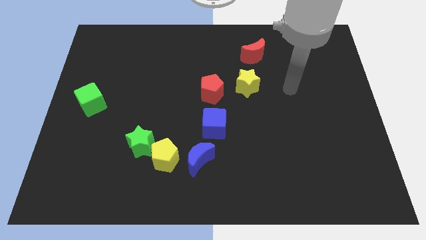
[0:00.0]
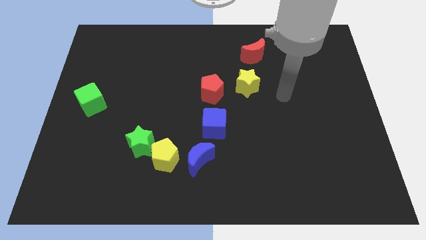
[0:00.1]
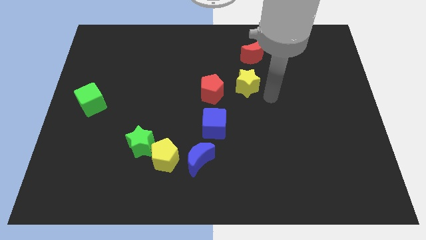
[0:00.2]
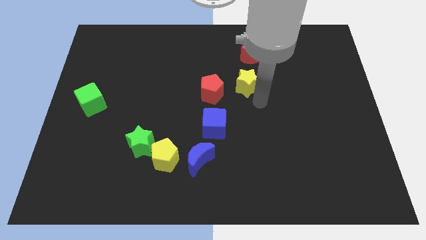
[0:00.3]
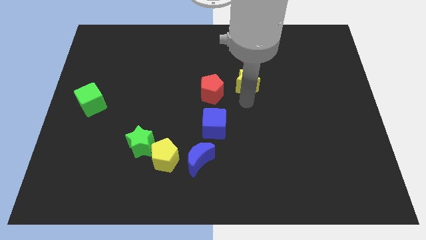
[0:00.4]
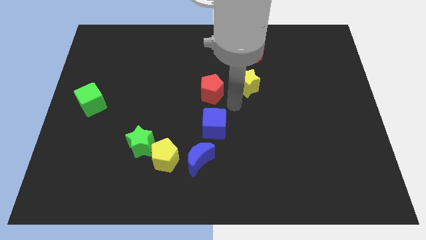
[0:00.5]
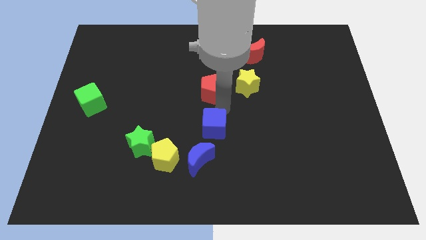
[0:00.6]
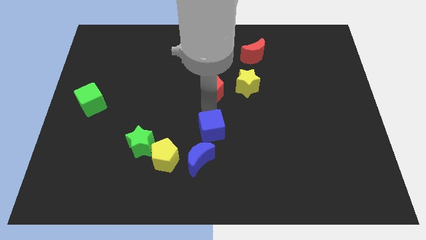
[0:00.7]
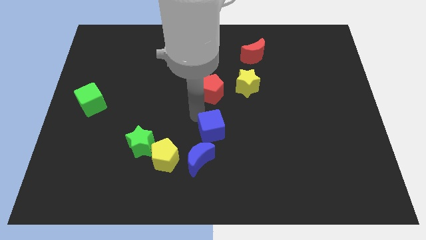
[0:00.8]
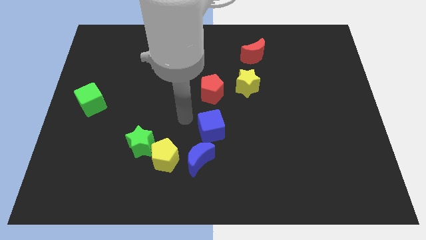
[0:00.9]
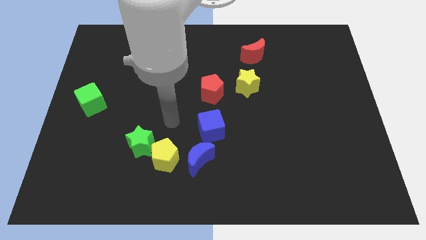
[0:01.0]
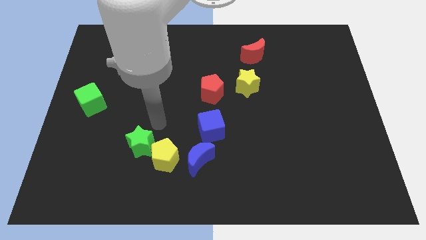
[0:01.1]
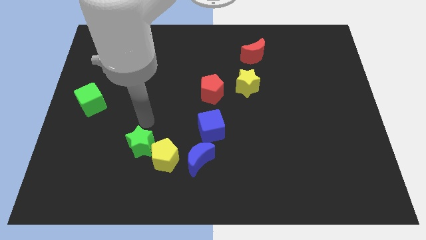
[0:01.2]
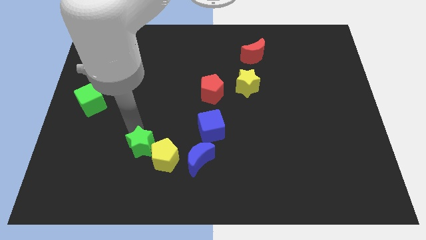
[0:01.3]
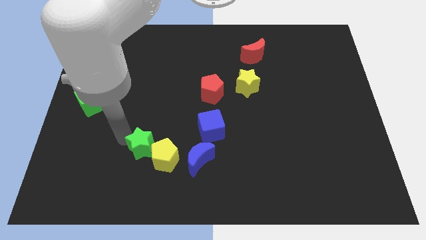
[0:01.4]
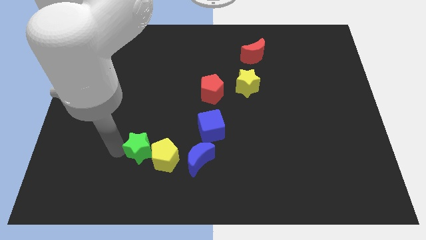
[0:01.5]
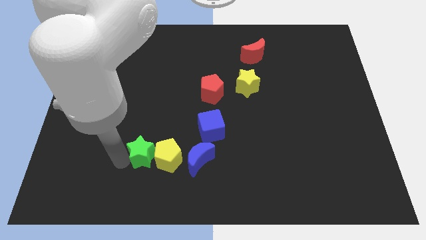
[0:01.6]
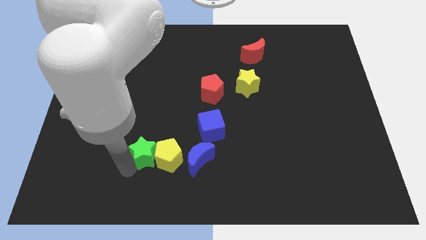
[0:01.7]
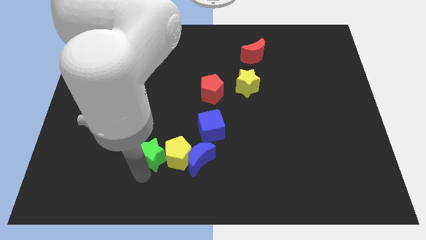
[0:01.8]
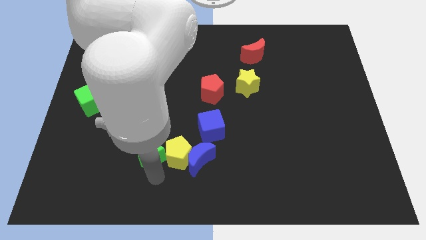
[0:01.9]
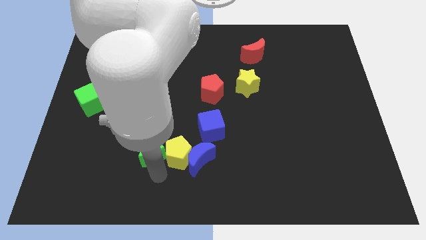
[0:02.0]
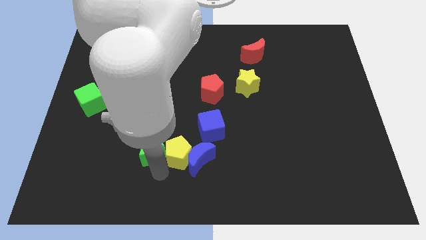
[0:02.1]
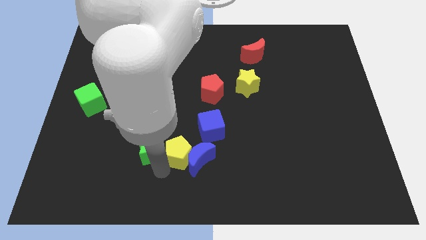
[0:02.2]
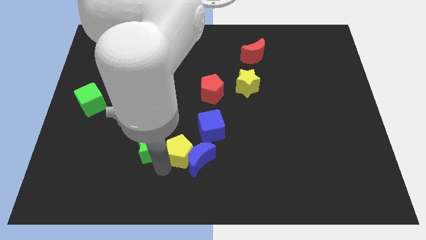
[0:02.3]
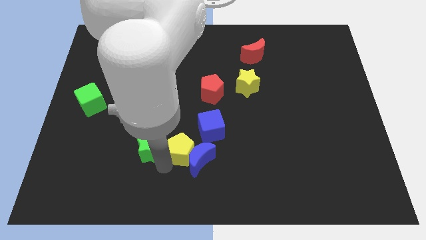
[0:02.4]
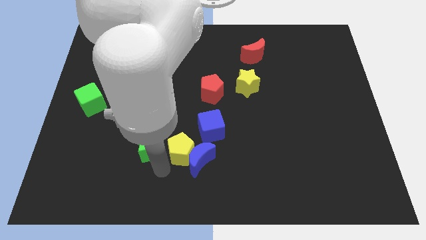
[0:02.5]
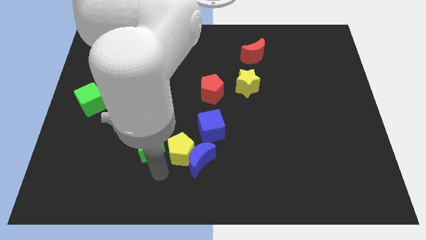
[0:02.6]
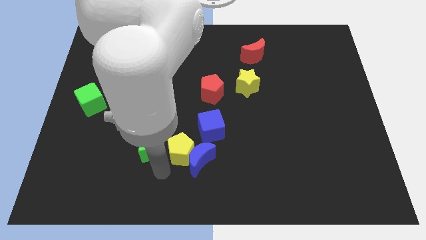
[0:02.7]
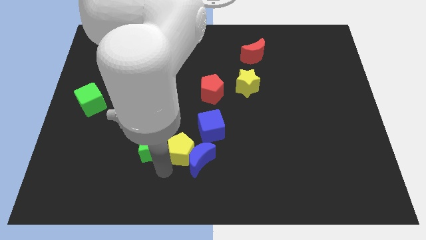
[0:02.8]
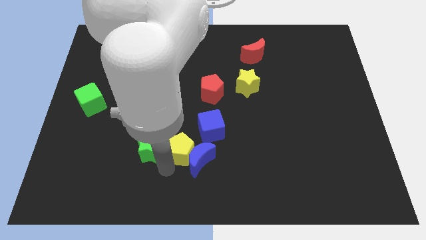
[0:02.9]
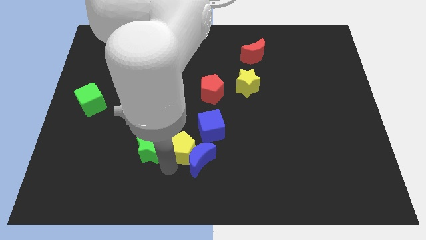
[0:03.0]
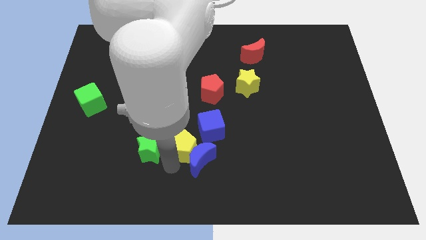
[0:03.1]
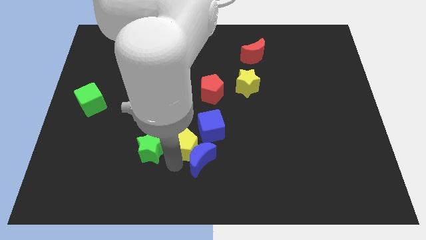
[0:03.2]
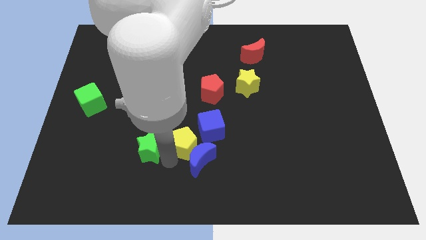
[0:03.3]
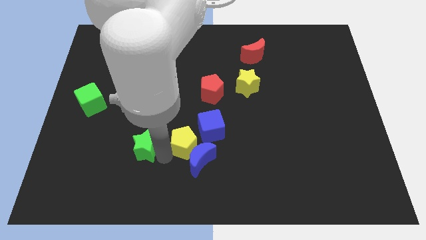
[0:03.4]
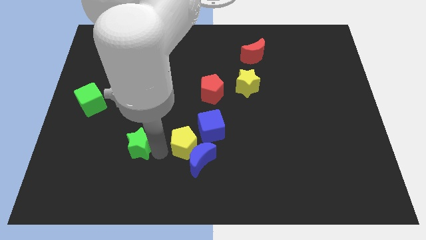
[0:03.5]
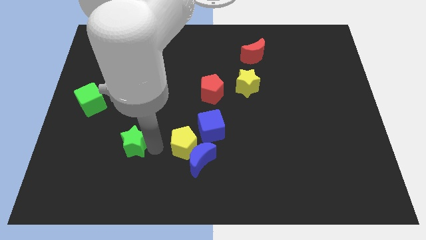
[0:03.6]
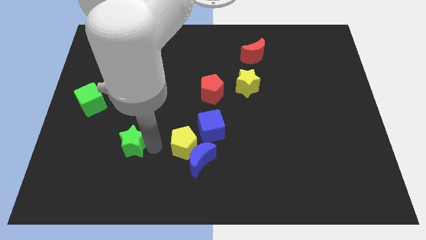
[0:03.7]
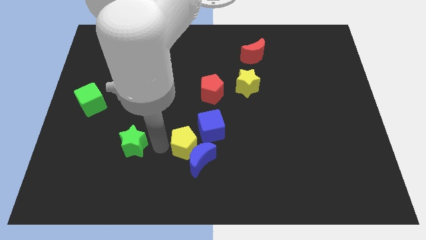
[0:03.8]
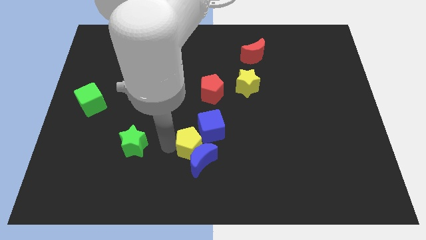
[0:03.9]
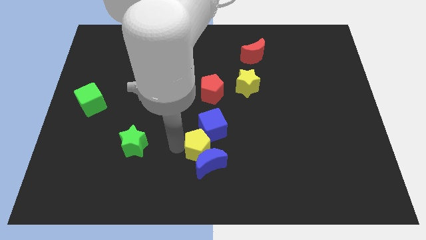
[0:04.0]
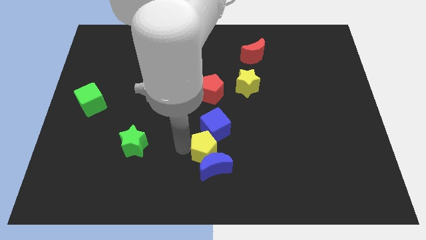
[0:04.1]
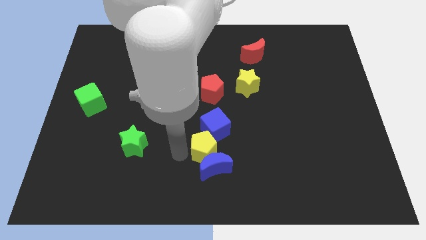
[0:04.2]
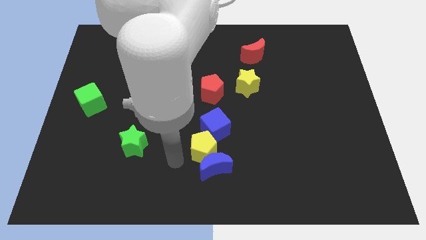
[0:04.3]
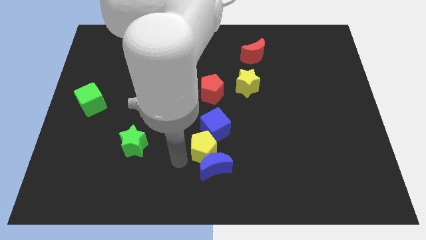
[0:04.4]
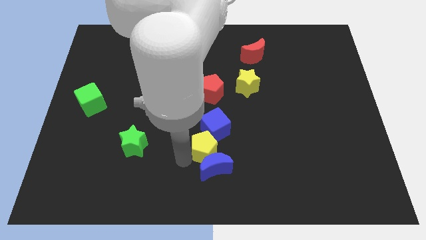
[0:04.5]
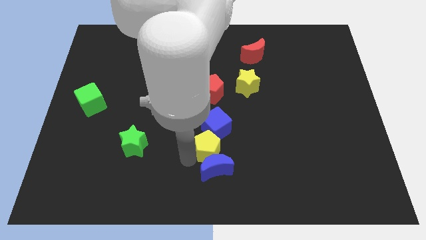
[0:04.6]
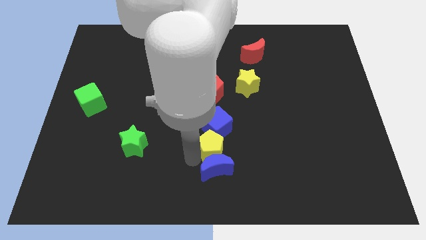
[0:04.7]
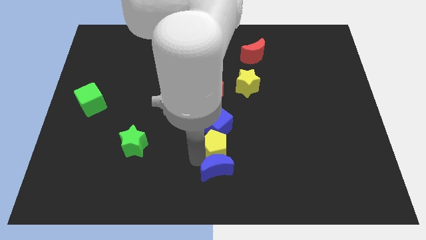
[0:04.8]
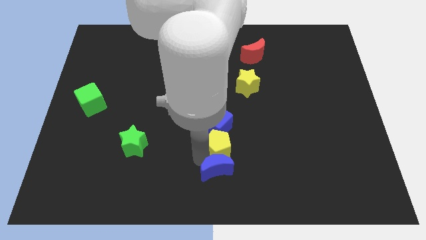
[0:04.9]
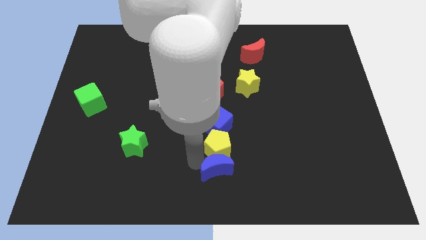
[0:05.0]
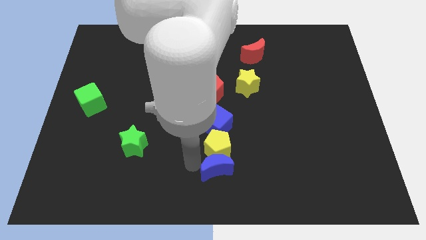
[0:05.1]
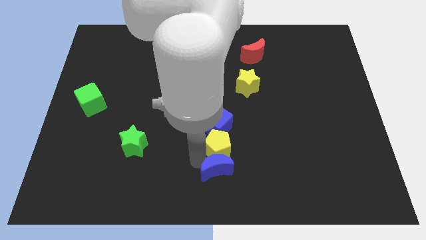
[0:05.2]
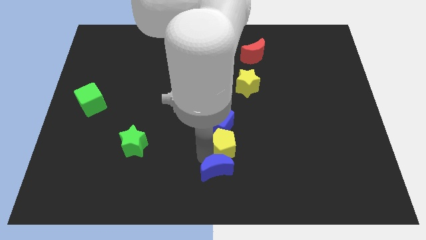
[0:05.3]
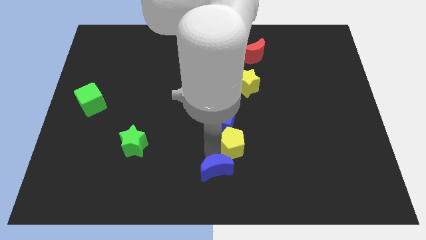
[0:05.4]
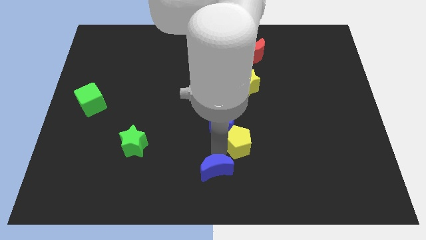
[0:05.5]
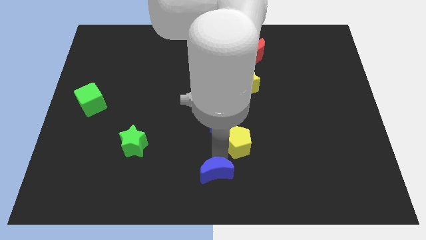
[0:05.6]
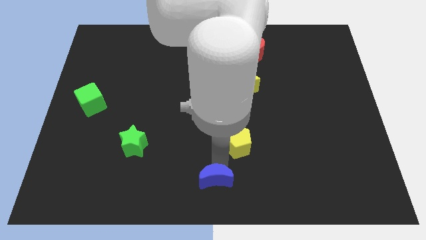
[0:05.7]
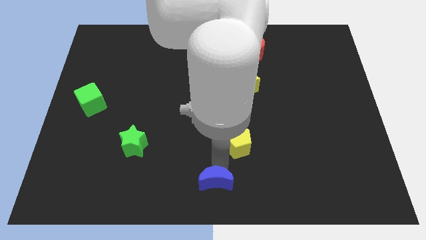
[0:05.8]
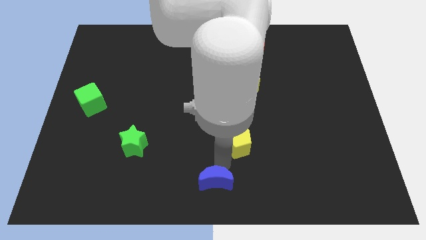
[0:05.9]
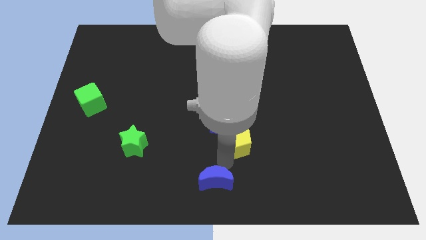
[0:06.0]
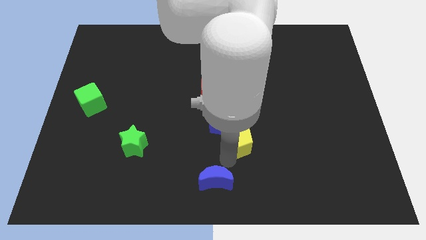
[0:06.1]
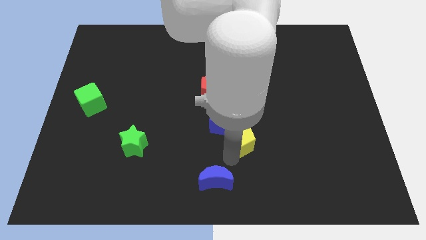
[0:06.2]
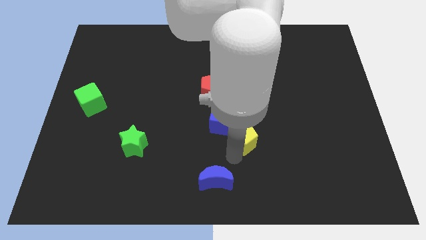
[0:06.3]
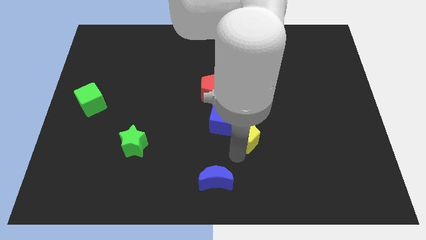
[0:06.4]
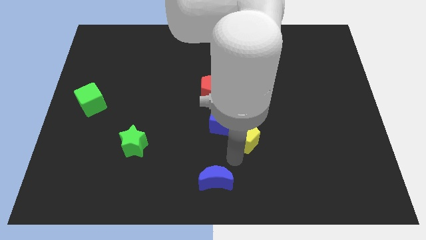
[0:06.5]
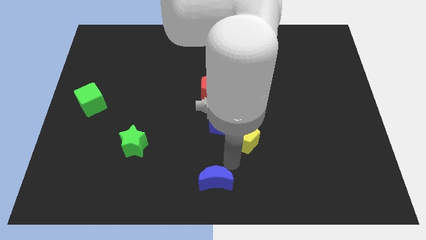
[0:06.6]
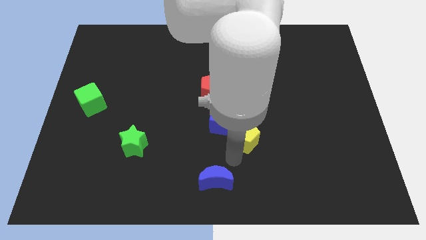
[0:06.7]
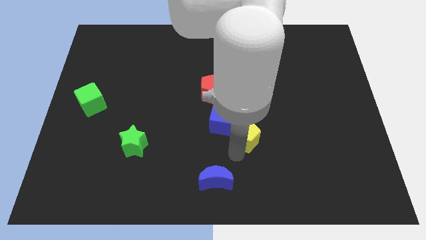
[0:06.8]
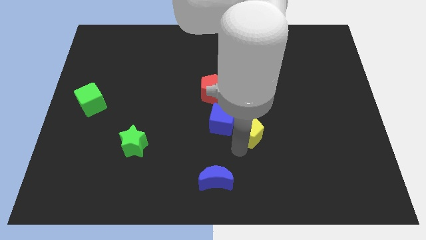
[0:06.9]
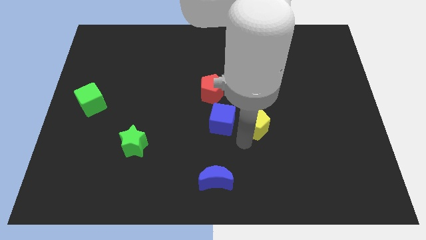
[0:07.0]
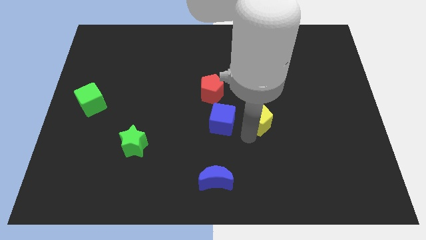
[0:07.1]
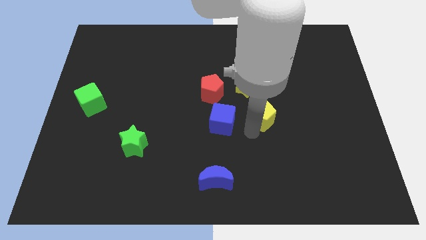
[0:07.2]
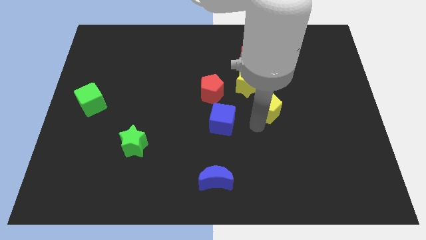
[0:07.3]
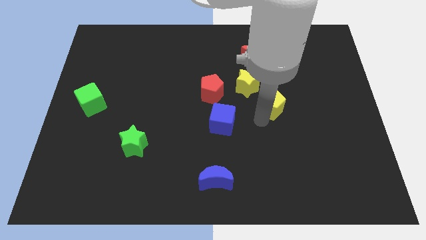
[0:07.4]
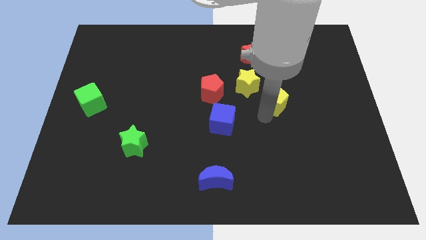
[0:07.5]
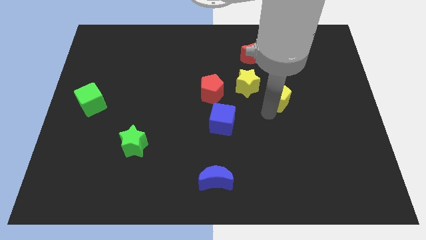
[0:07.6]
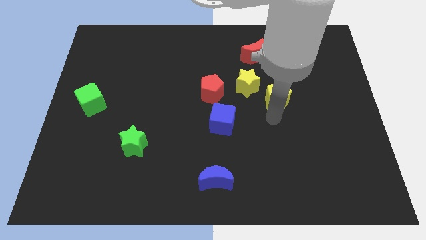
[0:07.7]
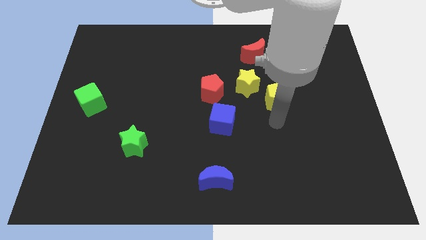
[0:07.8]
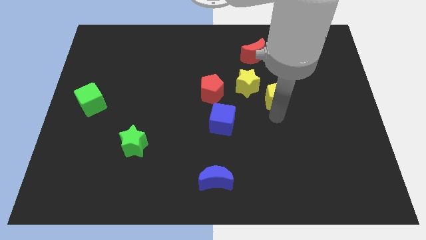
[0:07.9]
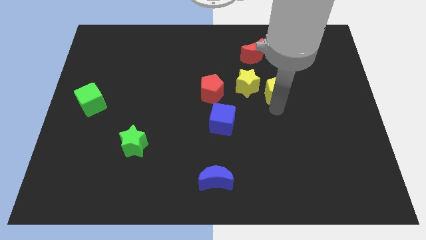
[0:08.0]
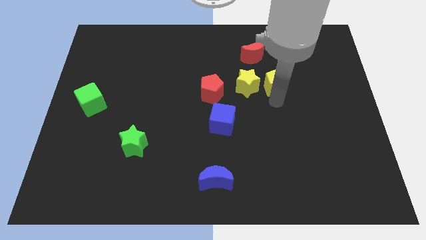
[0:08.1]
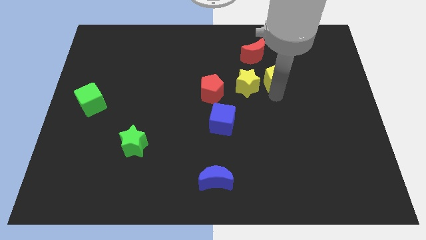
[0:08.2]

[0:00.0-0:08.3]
push the yellow pentagon diagonally down and to the right of the red moon
